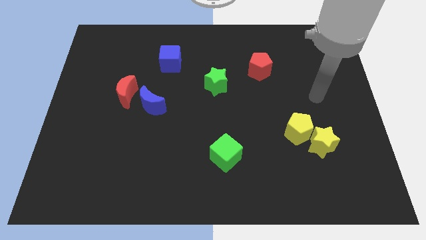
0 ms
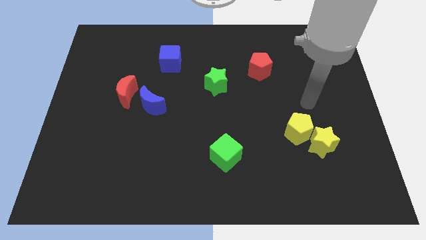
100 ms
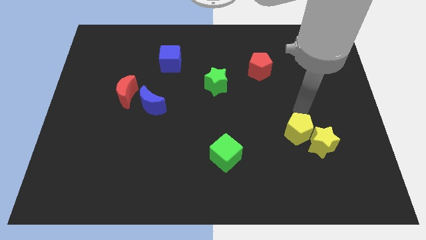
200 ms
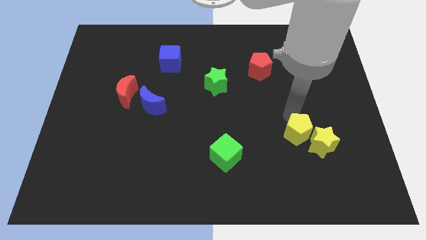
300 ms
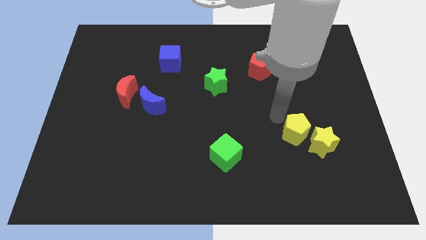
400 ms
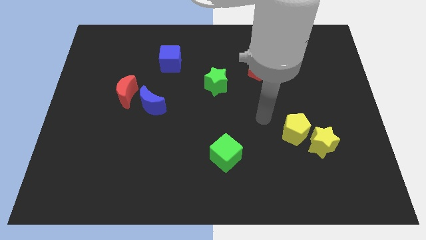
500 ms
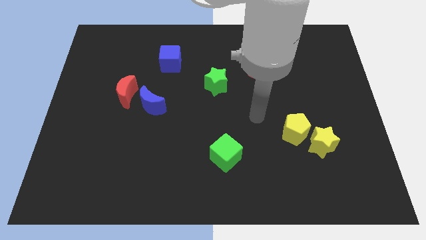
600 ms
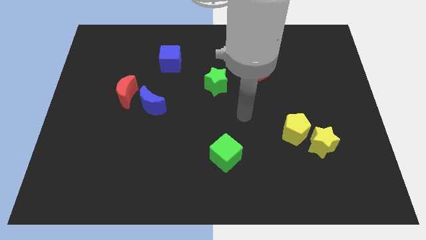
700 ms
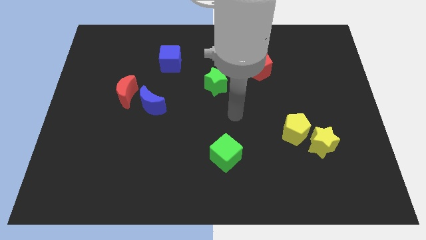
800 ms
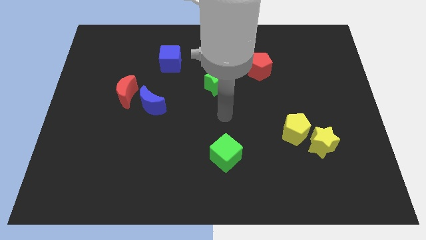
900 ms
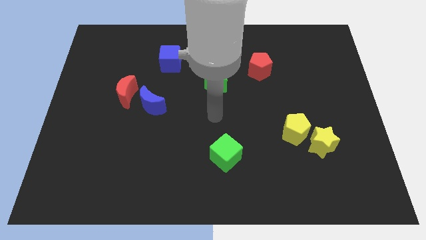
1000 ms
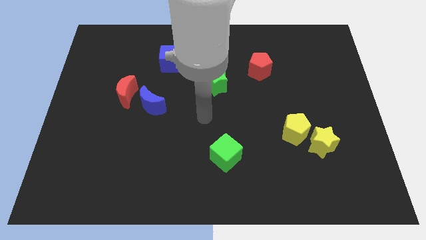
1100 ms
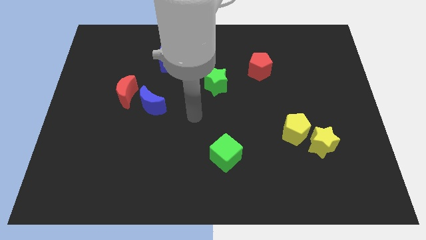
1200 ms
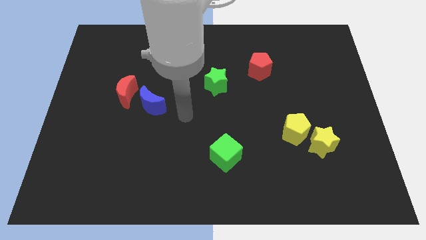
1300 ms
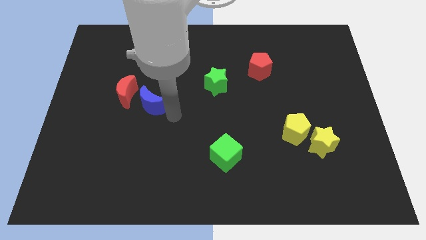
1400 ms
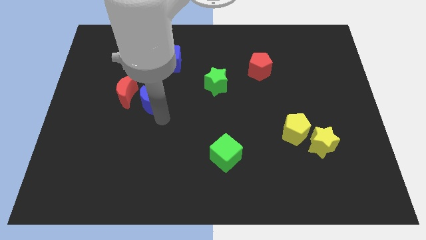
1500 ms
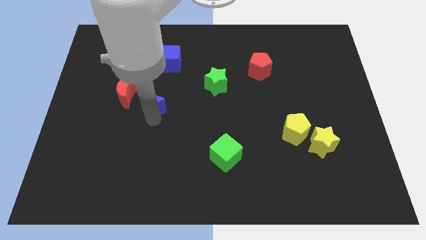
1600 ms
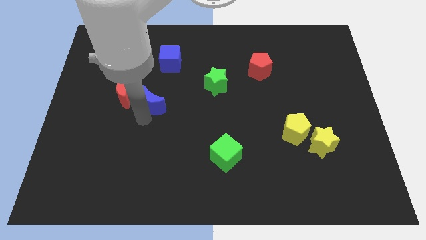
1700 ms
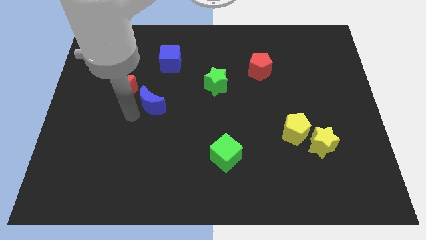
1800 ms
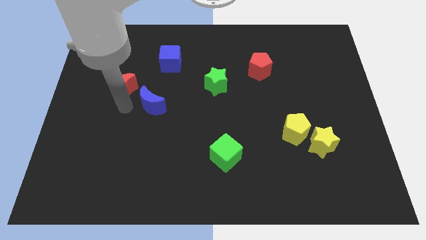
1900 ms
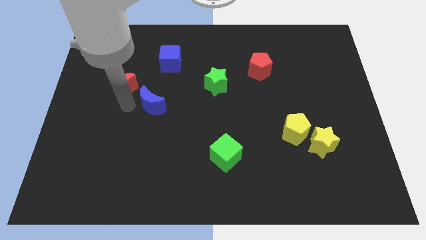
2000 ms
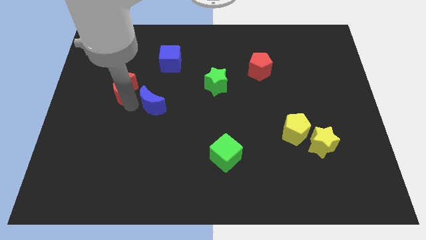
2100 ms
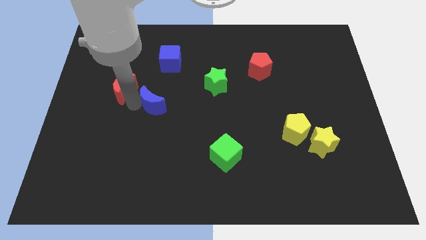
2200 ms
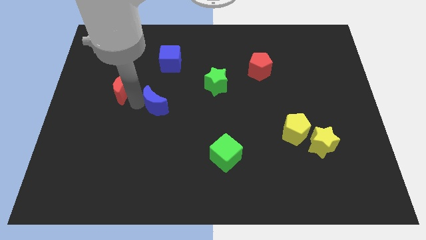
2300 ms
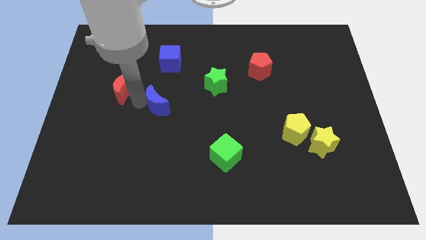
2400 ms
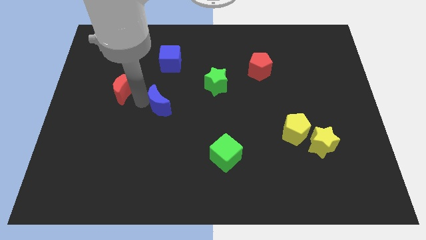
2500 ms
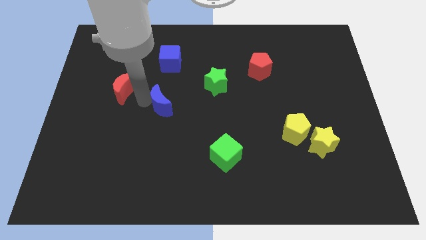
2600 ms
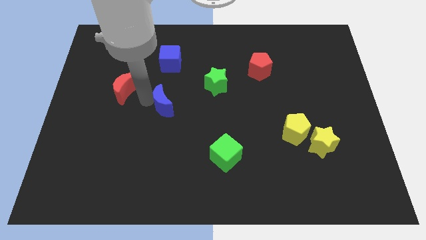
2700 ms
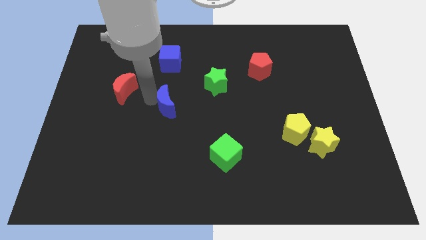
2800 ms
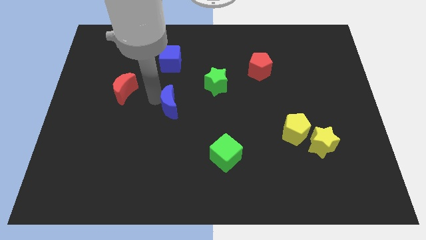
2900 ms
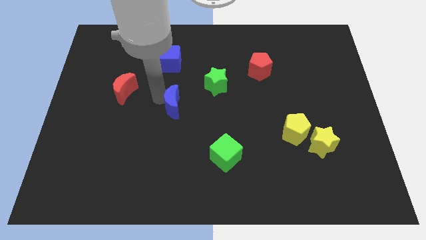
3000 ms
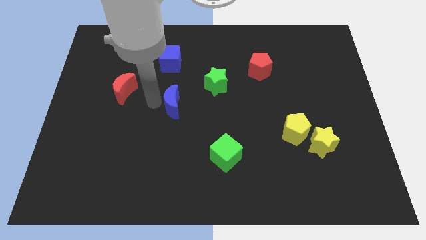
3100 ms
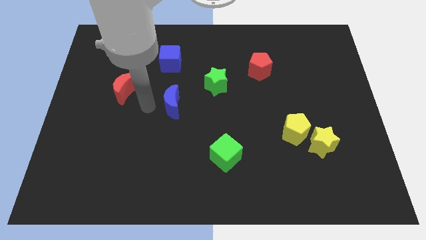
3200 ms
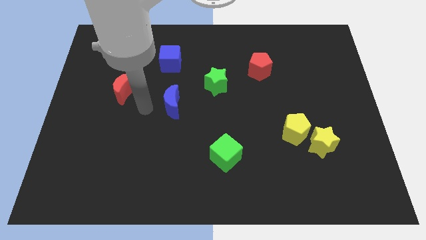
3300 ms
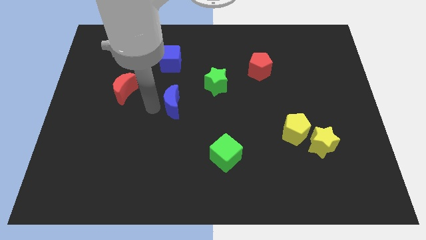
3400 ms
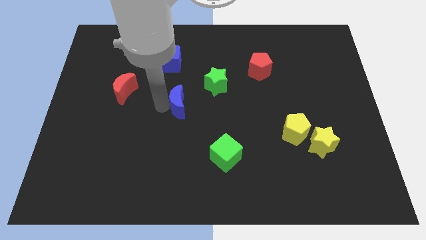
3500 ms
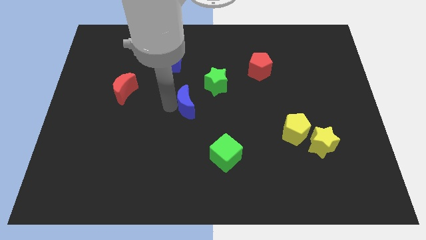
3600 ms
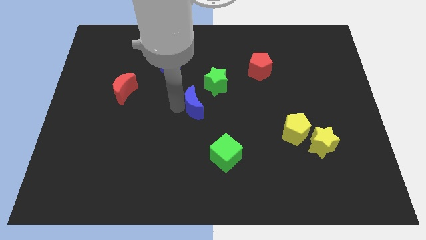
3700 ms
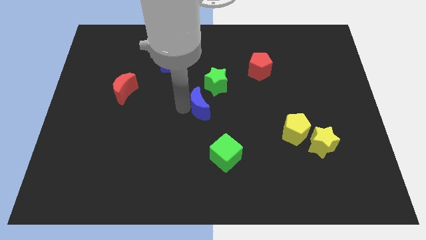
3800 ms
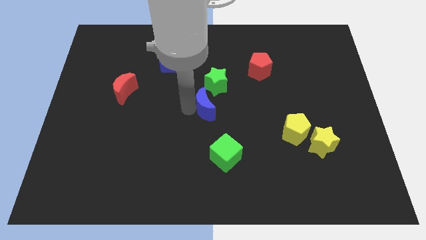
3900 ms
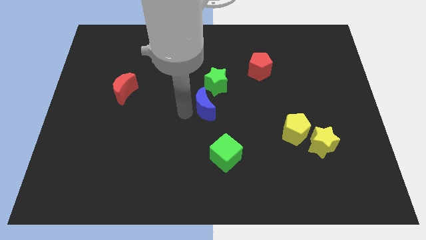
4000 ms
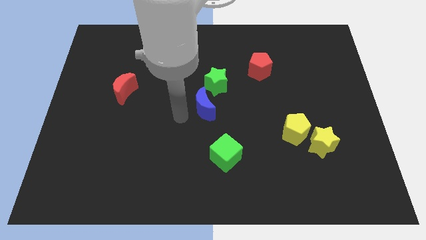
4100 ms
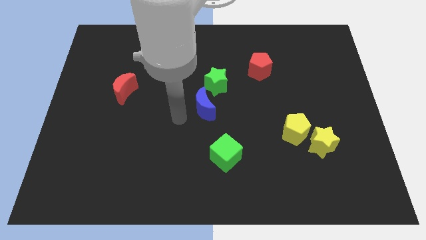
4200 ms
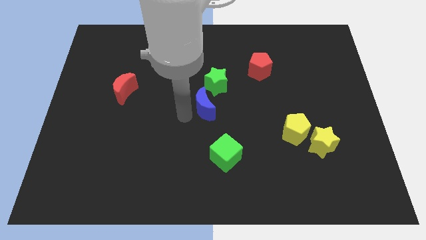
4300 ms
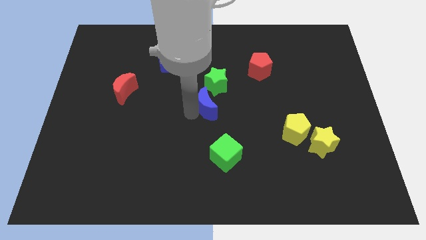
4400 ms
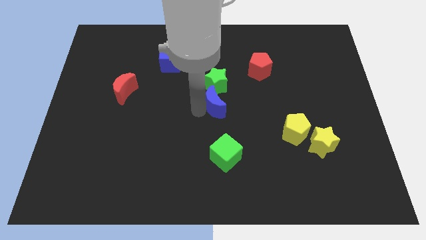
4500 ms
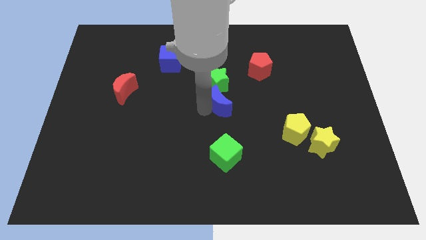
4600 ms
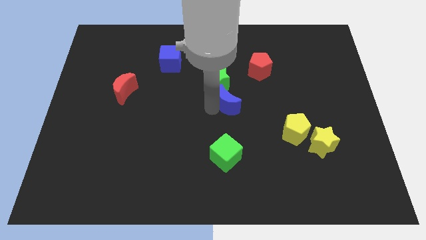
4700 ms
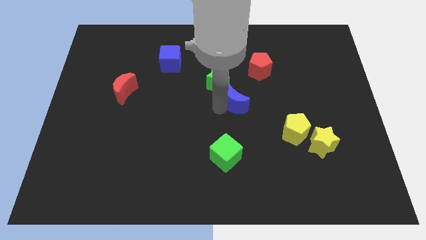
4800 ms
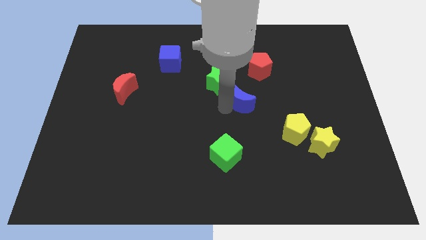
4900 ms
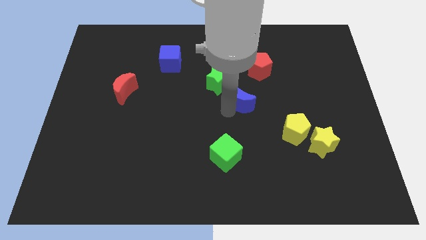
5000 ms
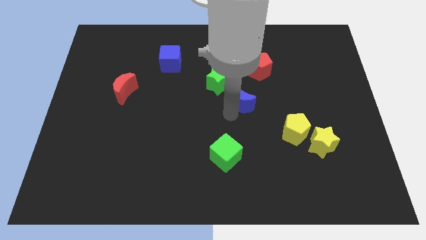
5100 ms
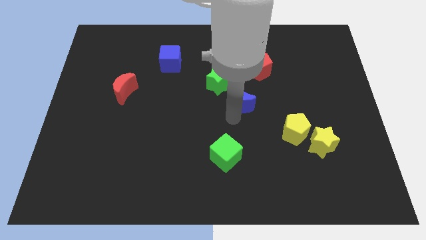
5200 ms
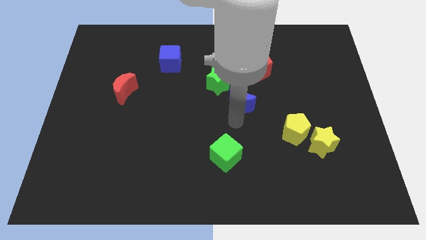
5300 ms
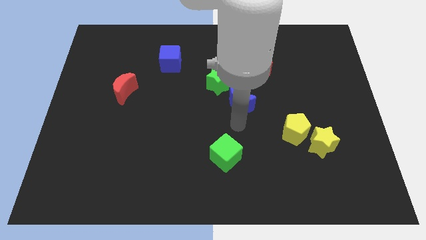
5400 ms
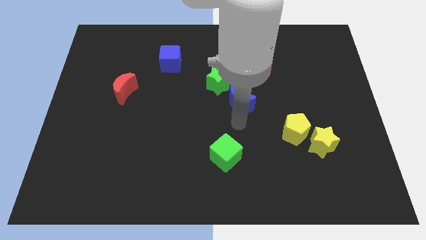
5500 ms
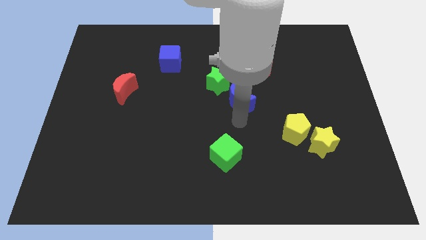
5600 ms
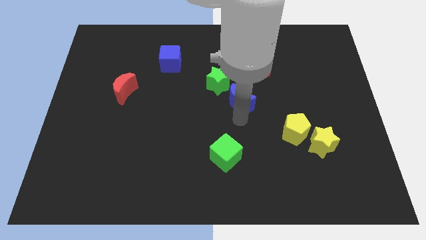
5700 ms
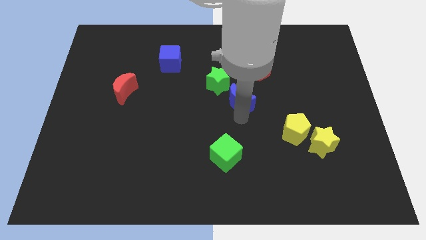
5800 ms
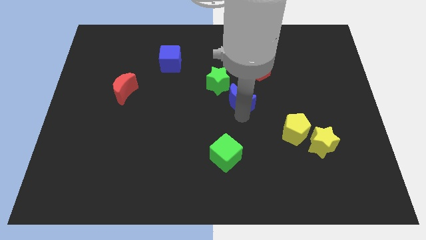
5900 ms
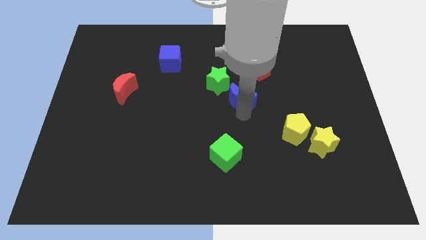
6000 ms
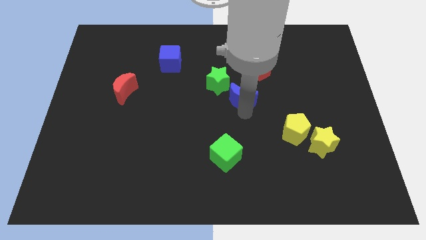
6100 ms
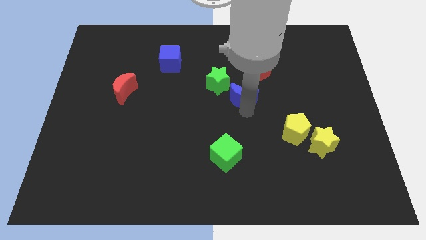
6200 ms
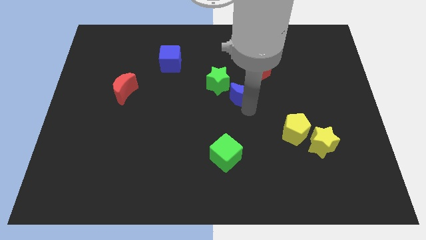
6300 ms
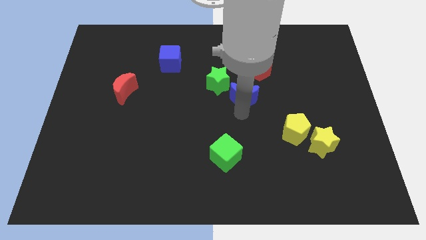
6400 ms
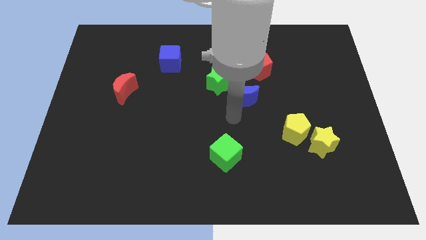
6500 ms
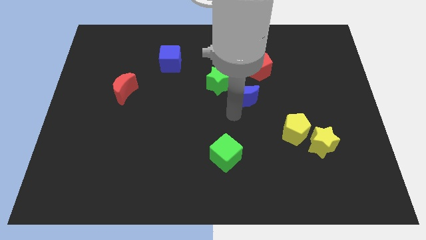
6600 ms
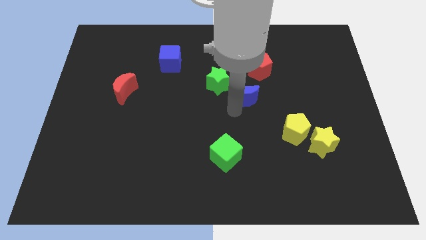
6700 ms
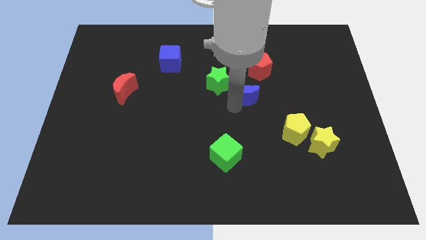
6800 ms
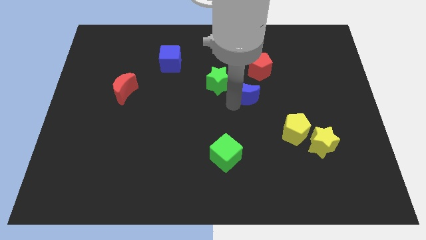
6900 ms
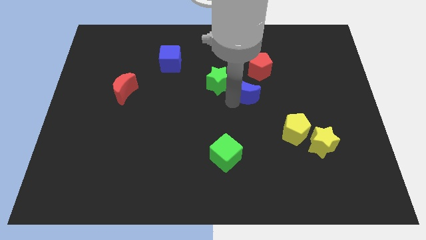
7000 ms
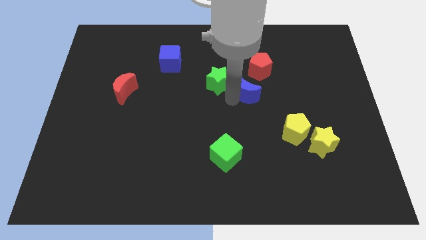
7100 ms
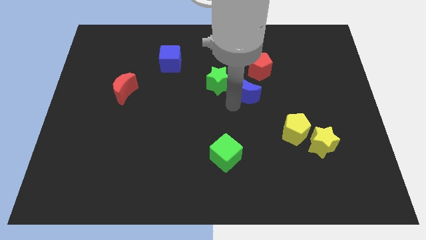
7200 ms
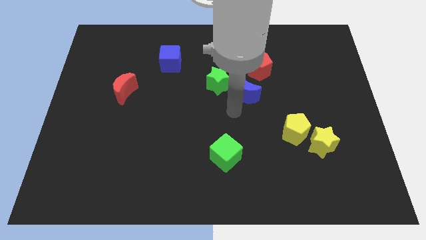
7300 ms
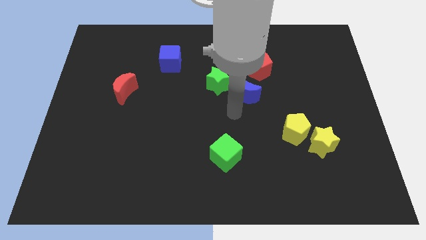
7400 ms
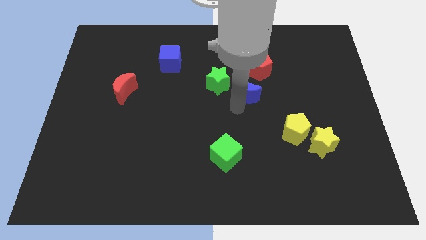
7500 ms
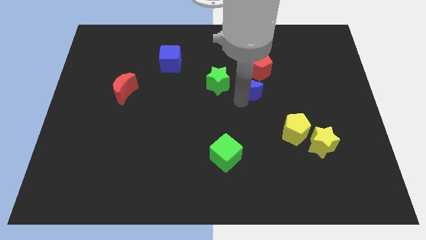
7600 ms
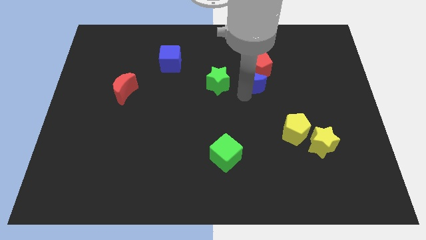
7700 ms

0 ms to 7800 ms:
push the blue moon to the red pentagon
